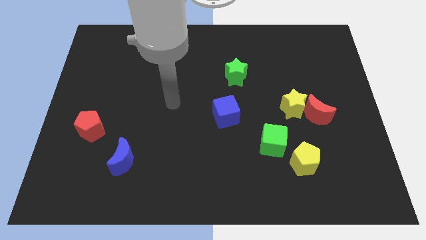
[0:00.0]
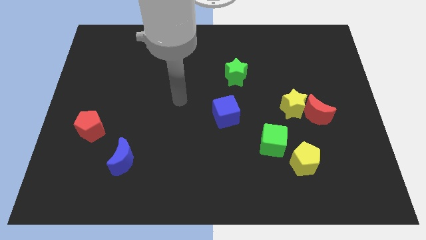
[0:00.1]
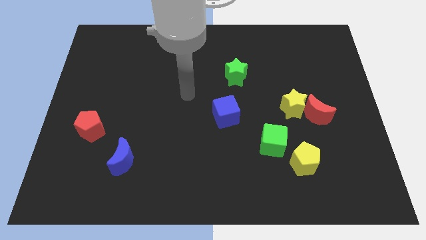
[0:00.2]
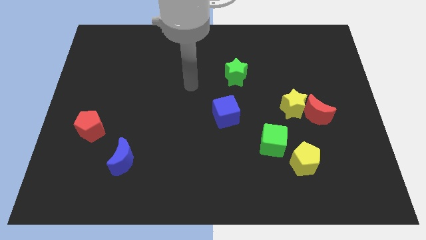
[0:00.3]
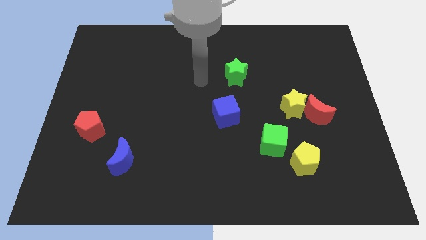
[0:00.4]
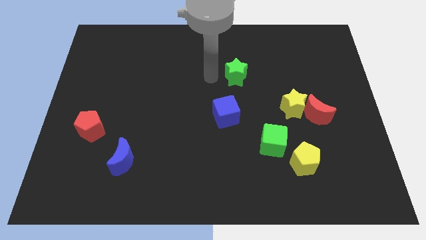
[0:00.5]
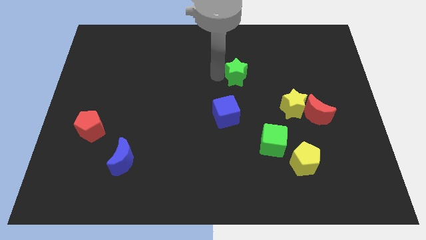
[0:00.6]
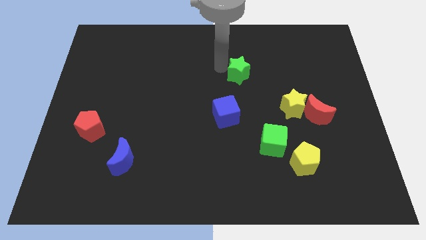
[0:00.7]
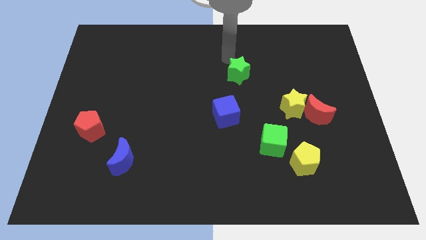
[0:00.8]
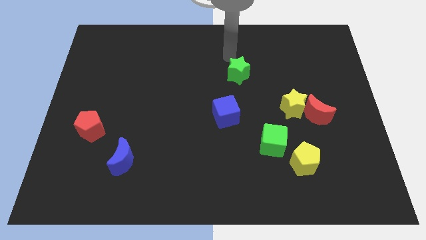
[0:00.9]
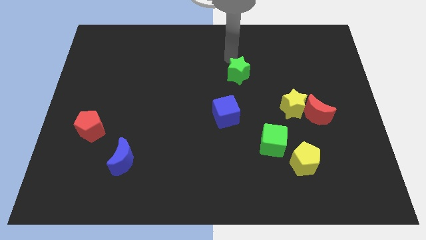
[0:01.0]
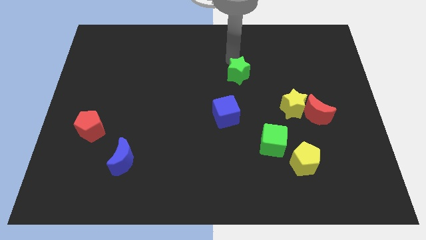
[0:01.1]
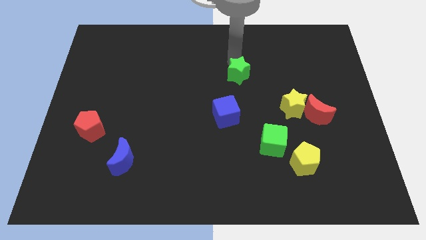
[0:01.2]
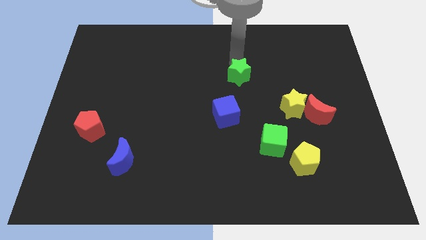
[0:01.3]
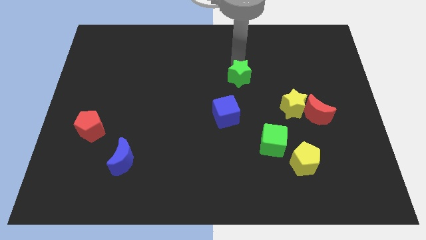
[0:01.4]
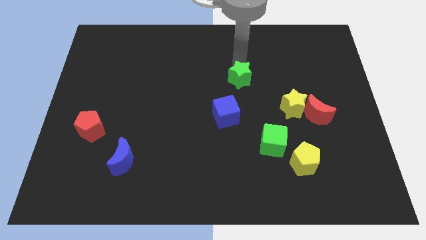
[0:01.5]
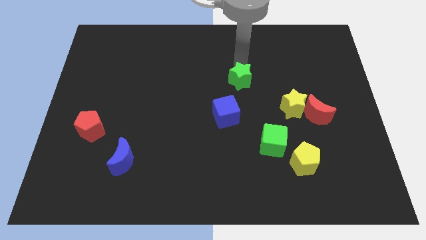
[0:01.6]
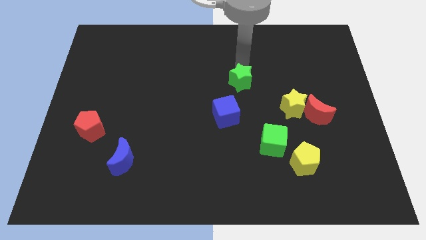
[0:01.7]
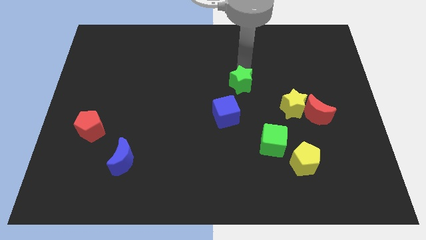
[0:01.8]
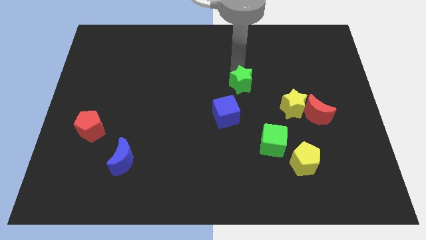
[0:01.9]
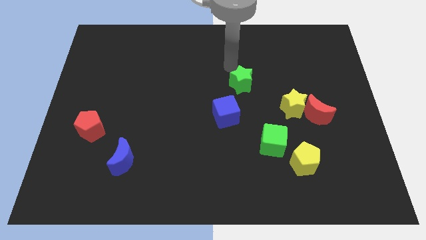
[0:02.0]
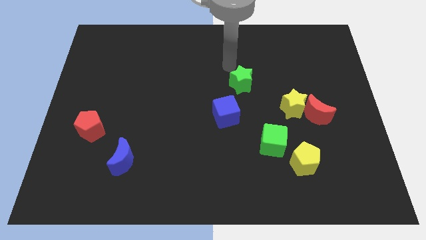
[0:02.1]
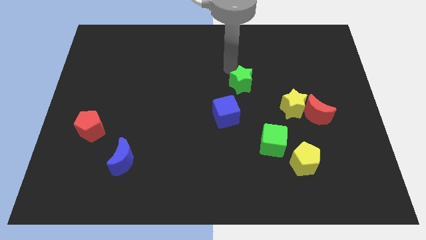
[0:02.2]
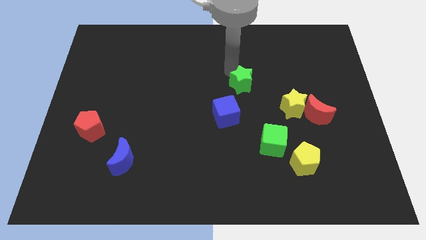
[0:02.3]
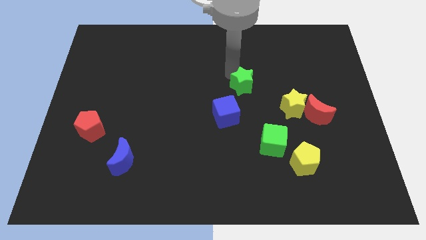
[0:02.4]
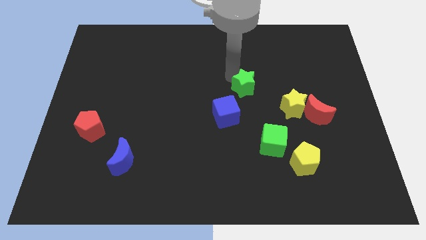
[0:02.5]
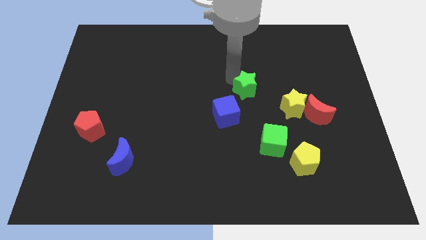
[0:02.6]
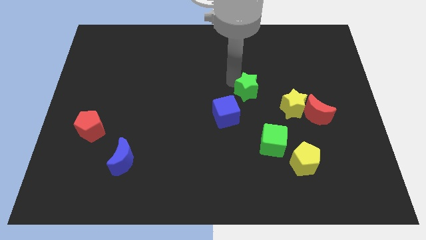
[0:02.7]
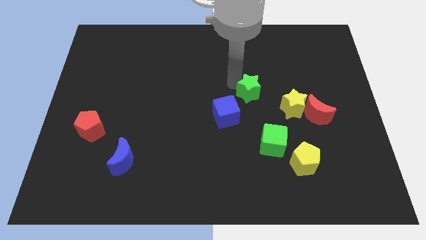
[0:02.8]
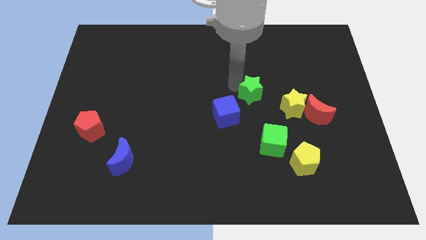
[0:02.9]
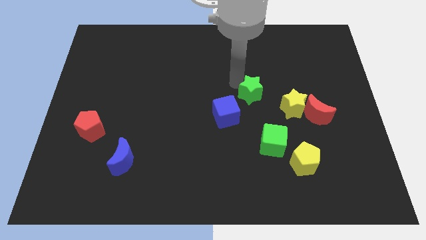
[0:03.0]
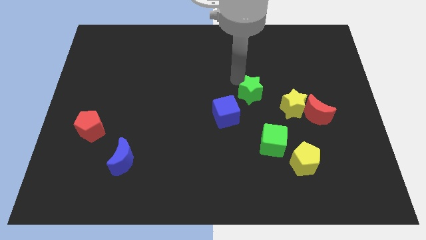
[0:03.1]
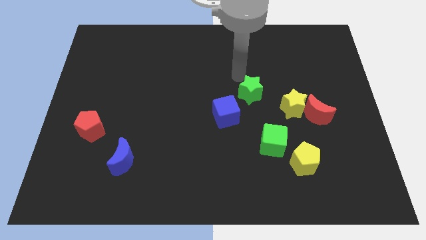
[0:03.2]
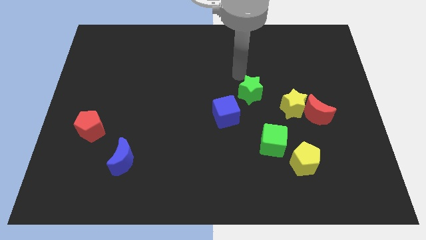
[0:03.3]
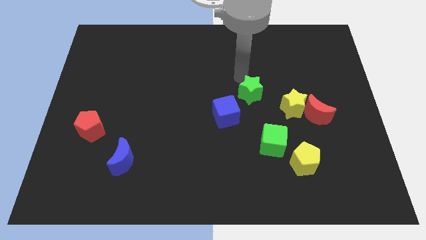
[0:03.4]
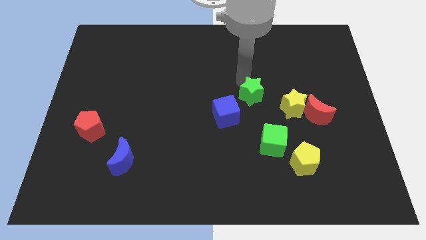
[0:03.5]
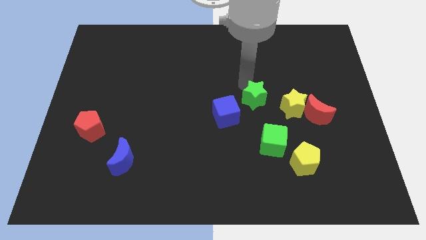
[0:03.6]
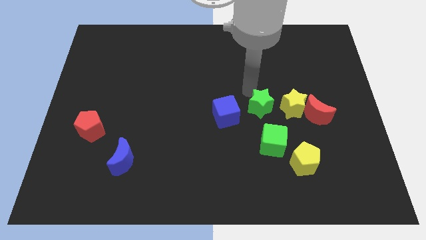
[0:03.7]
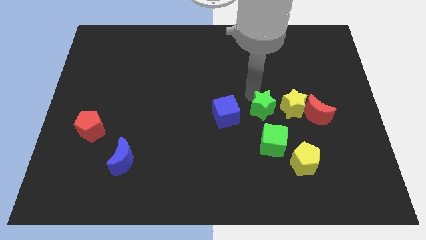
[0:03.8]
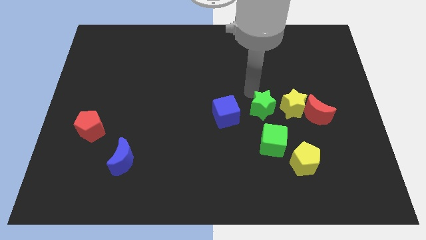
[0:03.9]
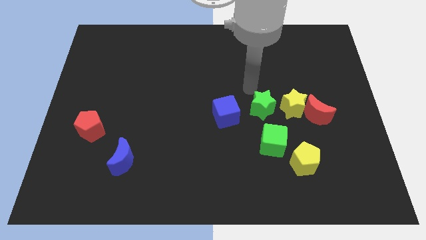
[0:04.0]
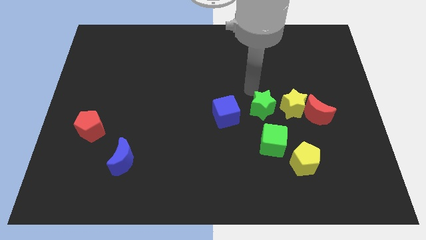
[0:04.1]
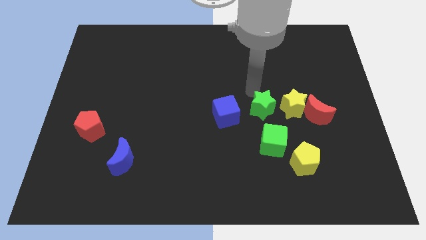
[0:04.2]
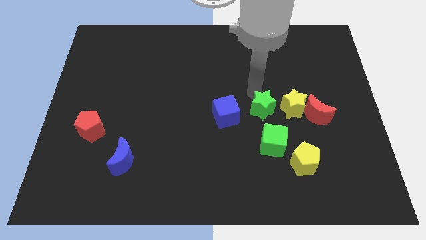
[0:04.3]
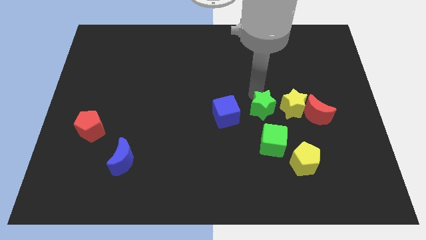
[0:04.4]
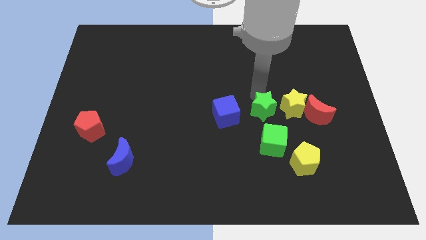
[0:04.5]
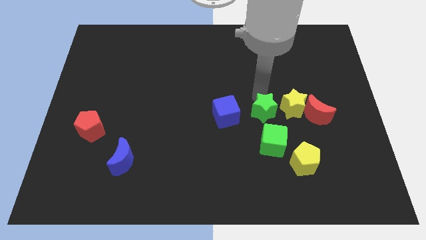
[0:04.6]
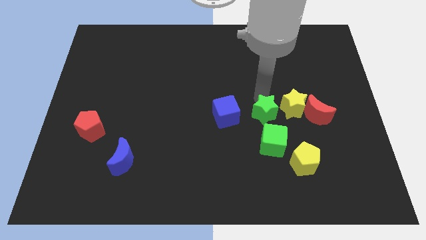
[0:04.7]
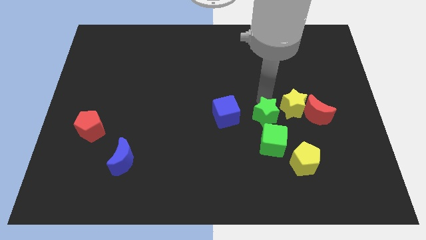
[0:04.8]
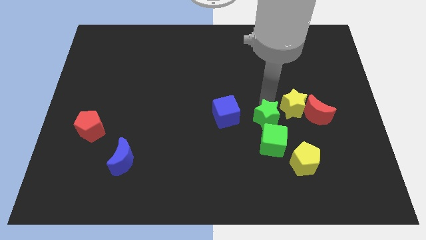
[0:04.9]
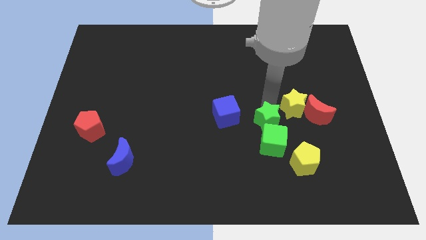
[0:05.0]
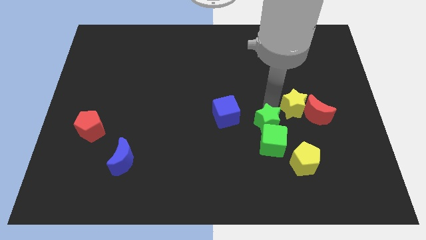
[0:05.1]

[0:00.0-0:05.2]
move the green star close to the green cube
